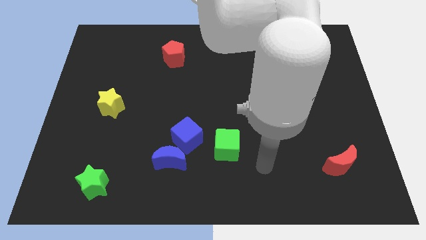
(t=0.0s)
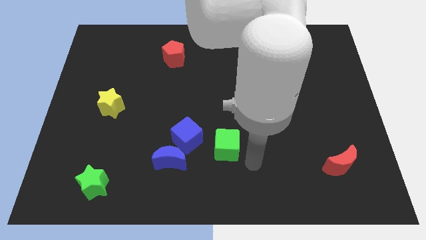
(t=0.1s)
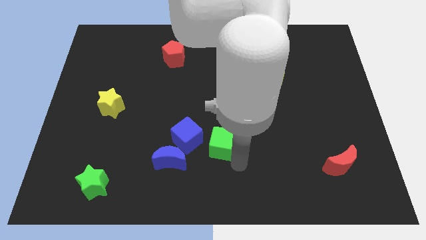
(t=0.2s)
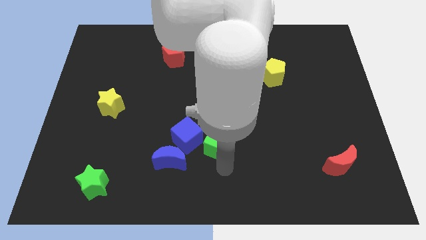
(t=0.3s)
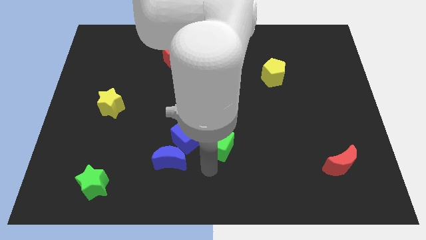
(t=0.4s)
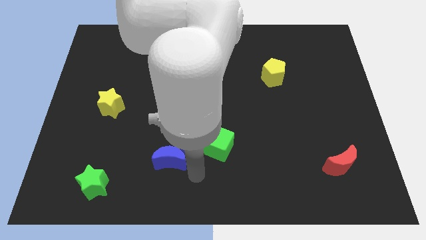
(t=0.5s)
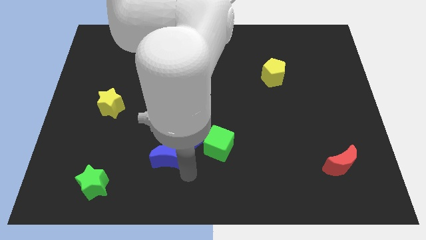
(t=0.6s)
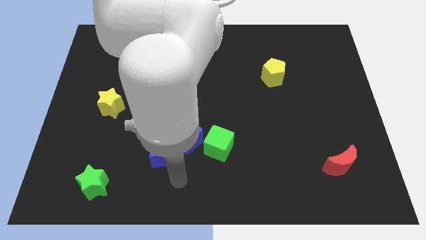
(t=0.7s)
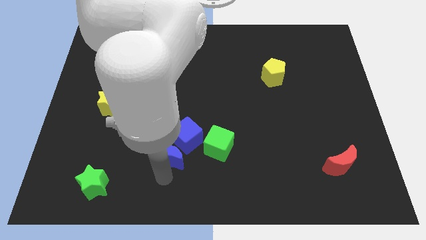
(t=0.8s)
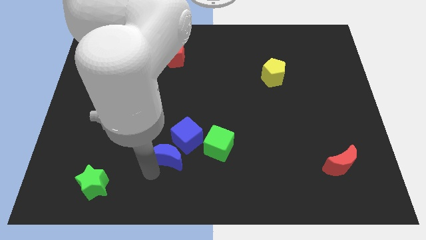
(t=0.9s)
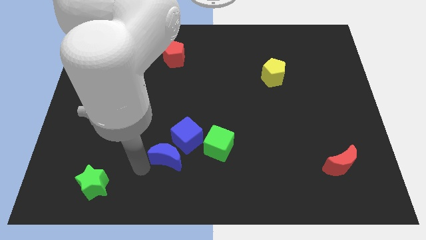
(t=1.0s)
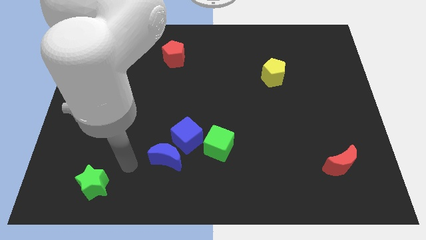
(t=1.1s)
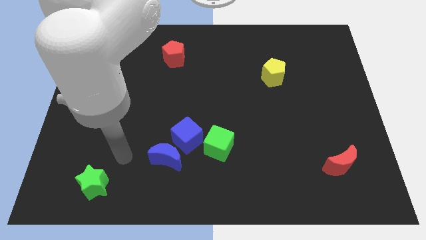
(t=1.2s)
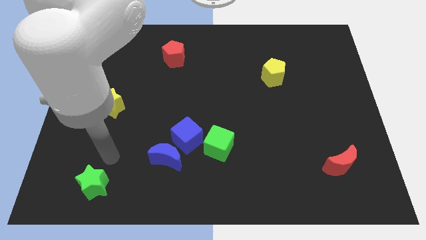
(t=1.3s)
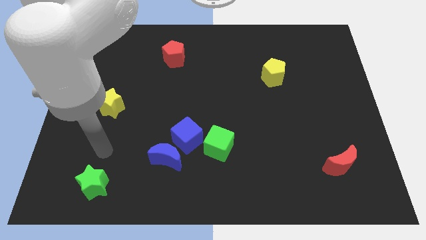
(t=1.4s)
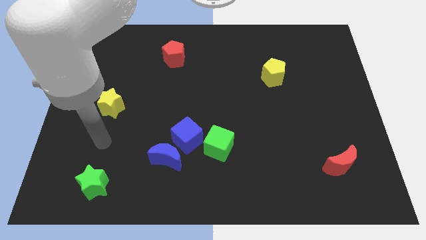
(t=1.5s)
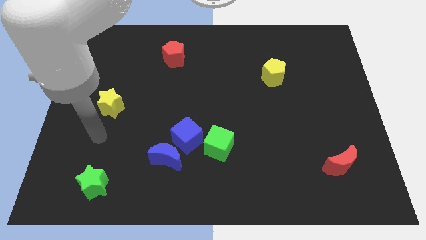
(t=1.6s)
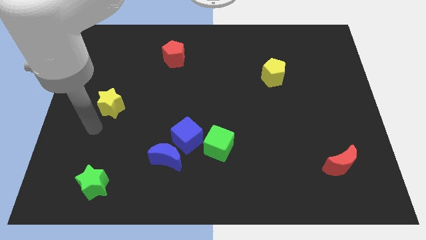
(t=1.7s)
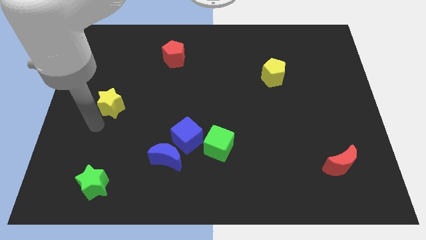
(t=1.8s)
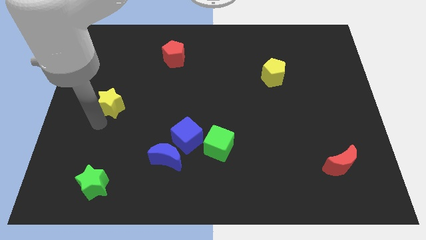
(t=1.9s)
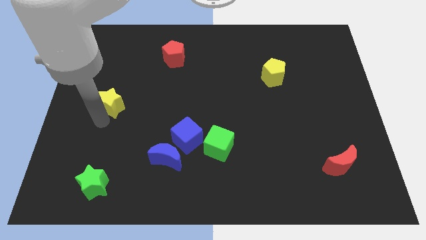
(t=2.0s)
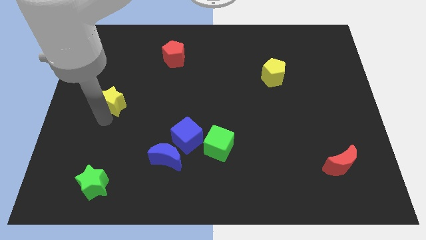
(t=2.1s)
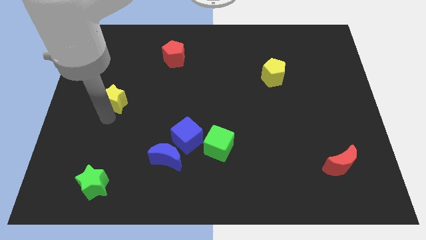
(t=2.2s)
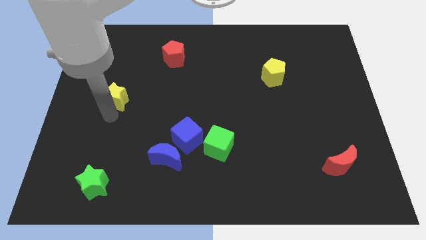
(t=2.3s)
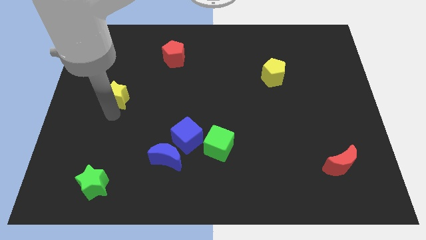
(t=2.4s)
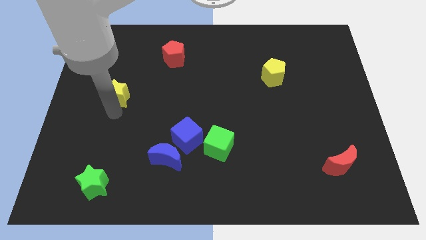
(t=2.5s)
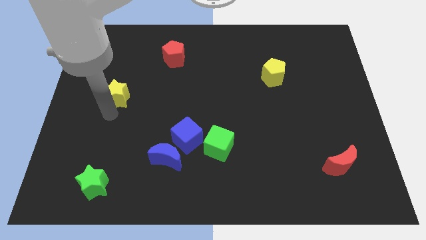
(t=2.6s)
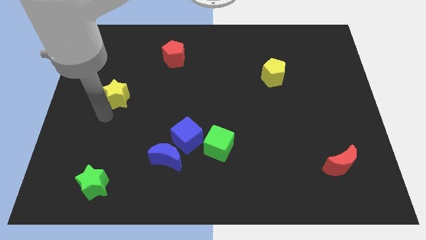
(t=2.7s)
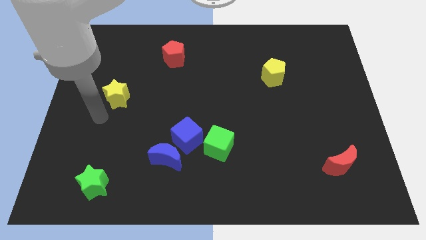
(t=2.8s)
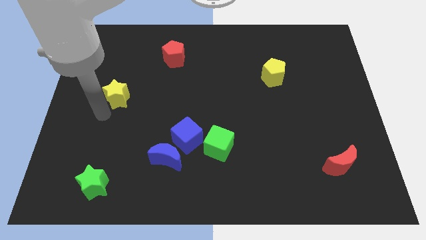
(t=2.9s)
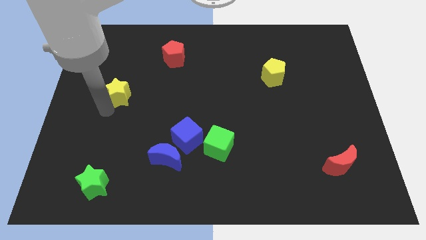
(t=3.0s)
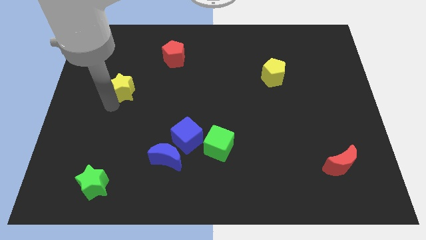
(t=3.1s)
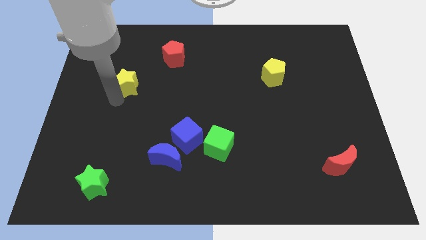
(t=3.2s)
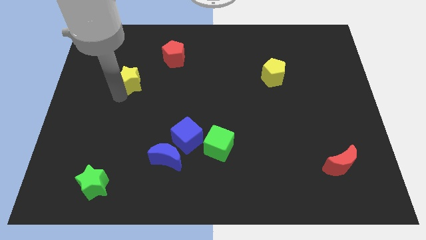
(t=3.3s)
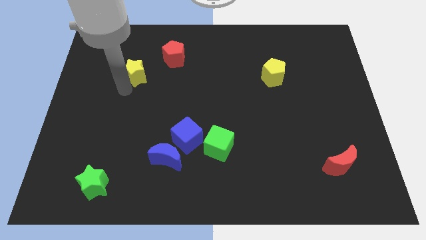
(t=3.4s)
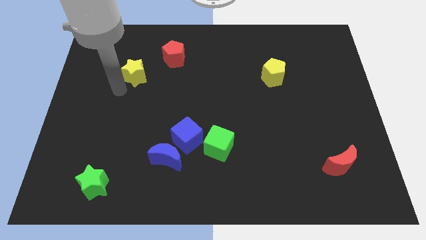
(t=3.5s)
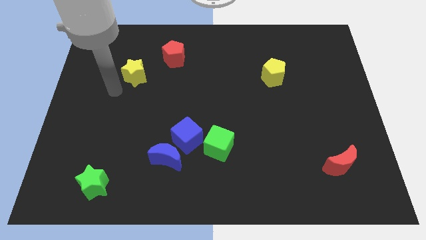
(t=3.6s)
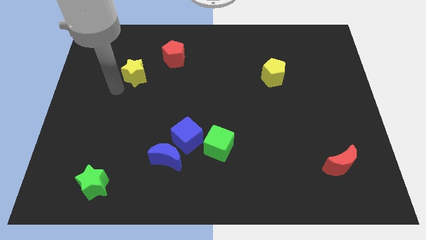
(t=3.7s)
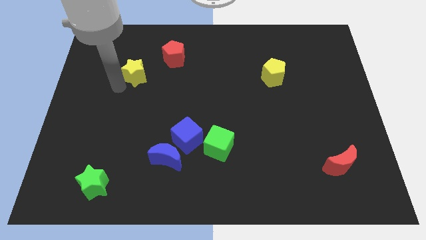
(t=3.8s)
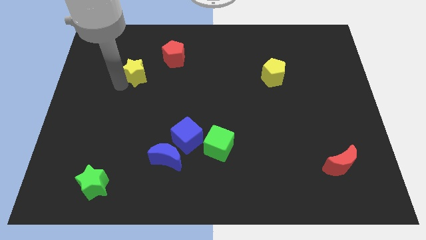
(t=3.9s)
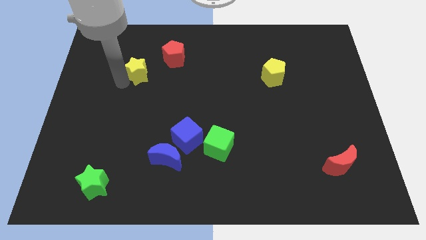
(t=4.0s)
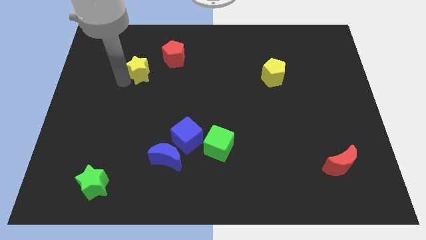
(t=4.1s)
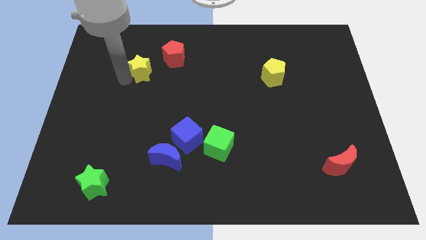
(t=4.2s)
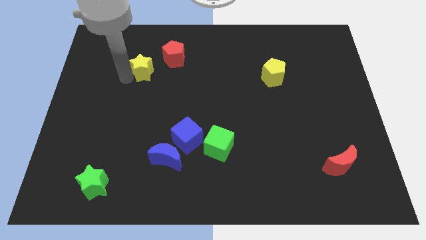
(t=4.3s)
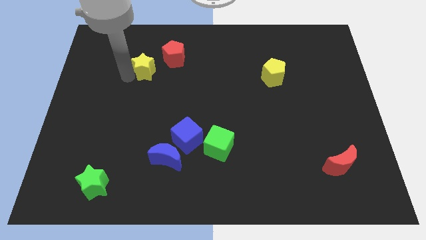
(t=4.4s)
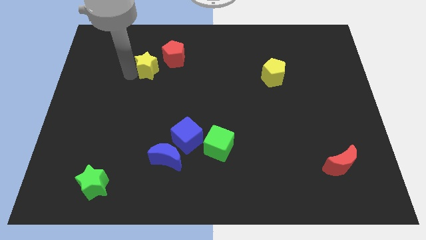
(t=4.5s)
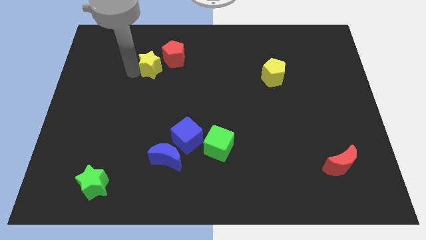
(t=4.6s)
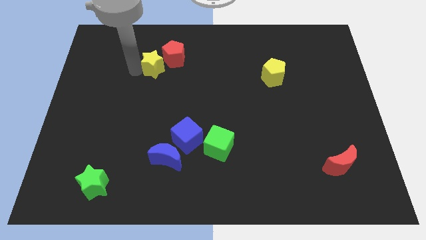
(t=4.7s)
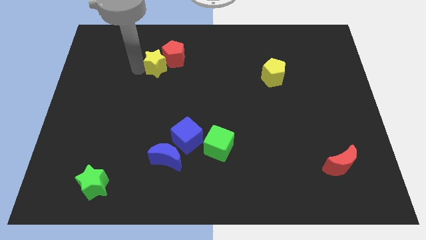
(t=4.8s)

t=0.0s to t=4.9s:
slide the yellow star next to the red pentagon

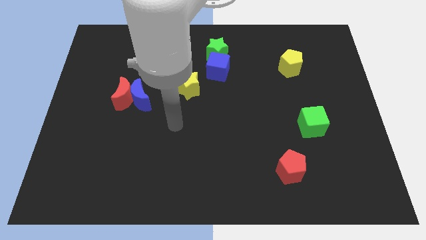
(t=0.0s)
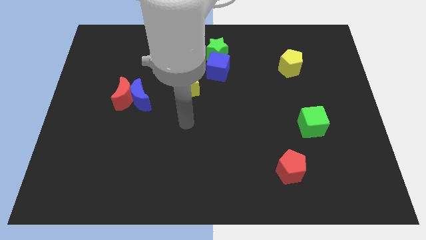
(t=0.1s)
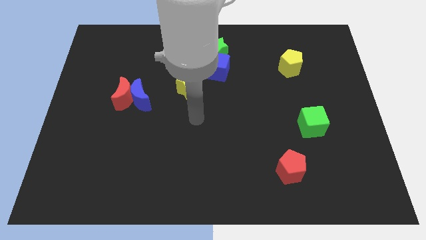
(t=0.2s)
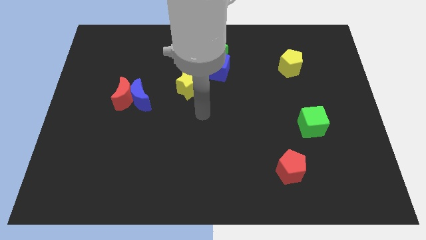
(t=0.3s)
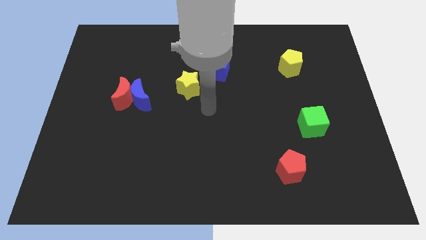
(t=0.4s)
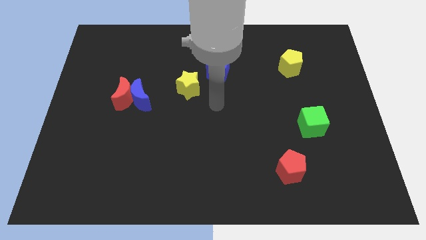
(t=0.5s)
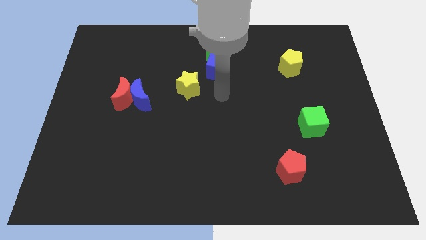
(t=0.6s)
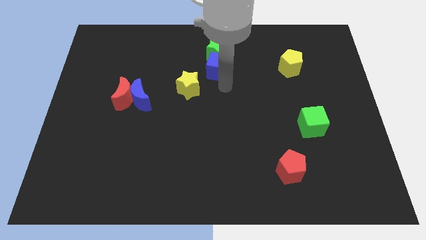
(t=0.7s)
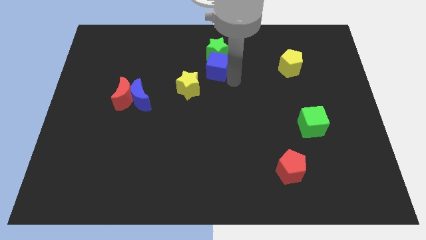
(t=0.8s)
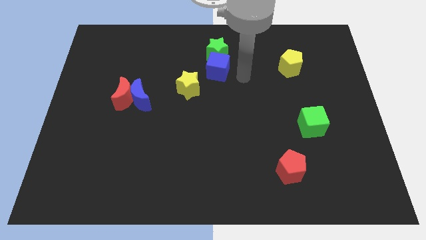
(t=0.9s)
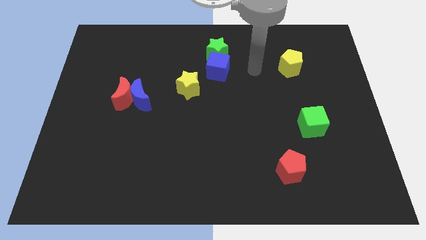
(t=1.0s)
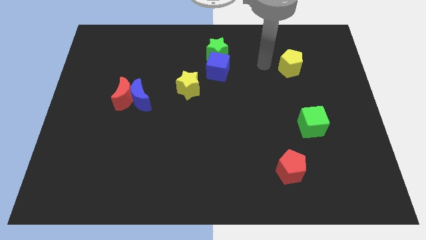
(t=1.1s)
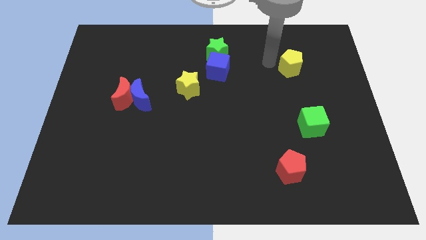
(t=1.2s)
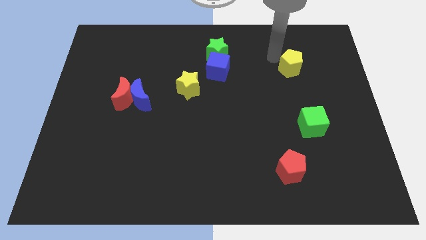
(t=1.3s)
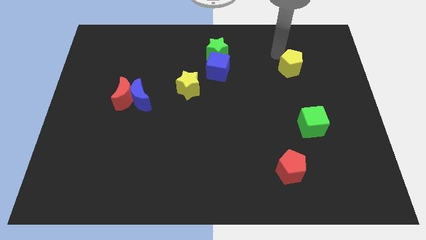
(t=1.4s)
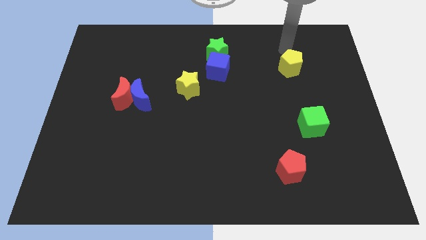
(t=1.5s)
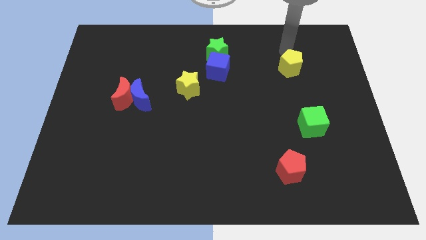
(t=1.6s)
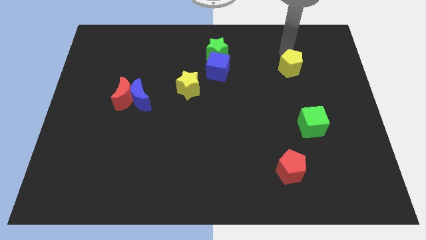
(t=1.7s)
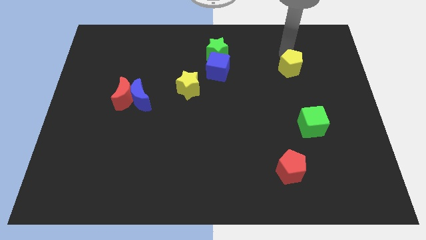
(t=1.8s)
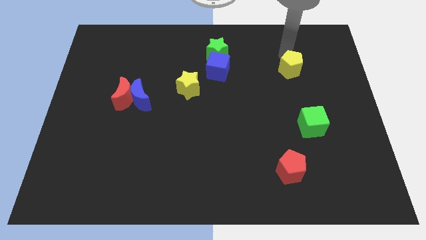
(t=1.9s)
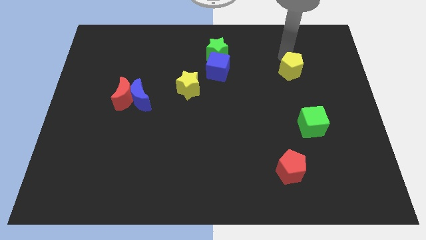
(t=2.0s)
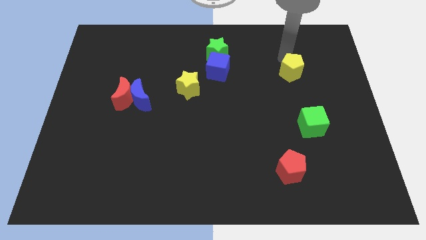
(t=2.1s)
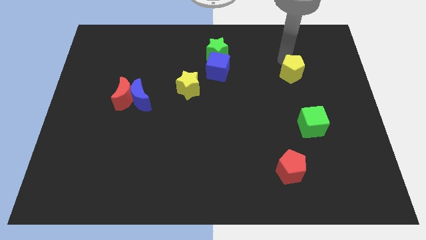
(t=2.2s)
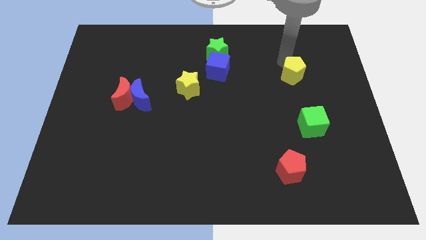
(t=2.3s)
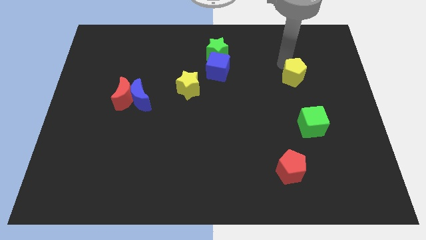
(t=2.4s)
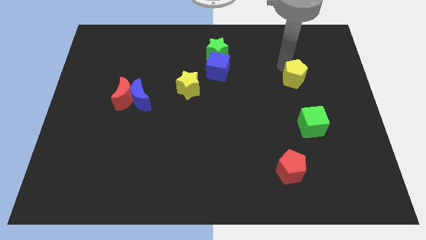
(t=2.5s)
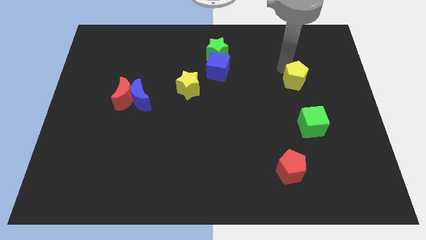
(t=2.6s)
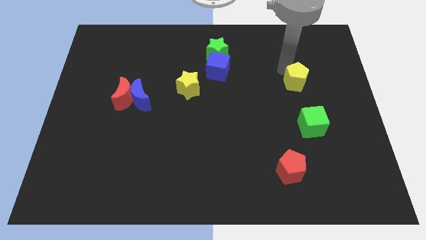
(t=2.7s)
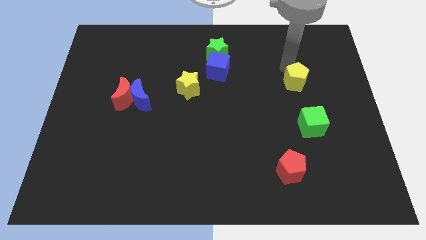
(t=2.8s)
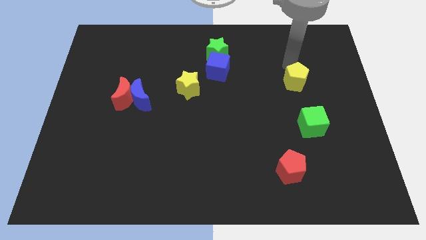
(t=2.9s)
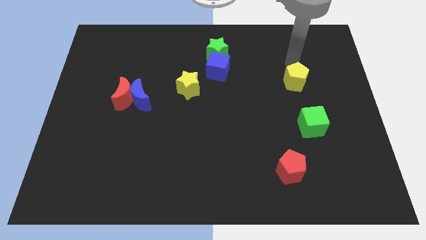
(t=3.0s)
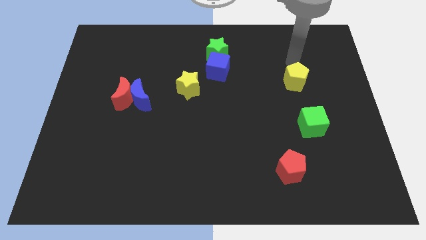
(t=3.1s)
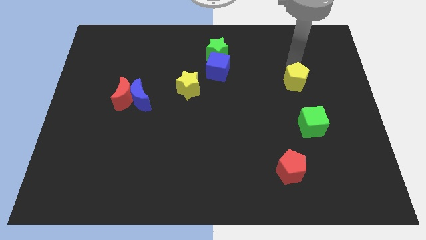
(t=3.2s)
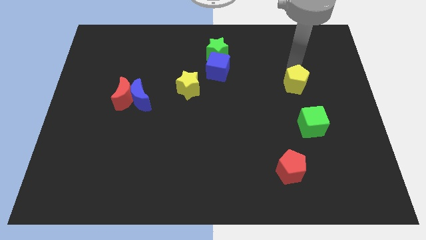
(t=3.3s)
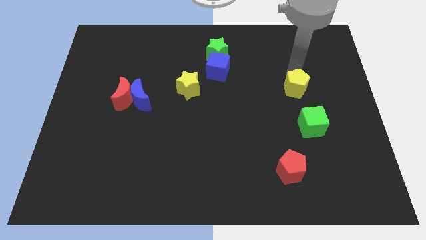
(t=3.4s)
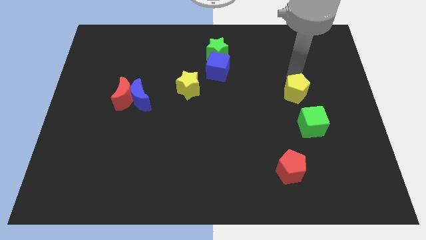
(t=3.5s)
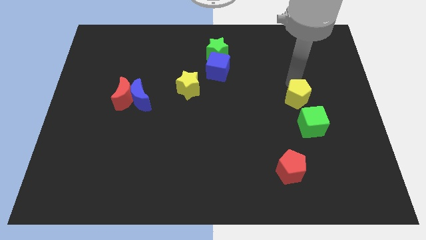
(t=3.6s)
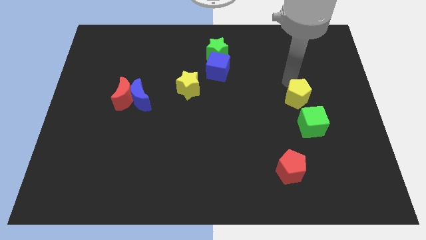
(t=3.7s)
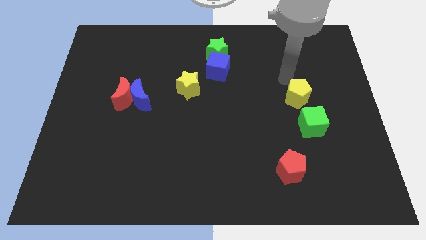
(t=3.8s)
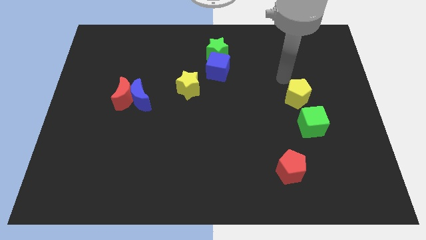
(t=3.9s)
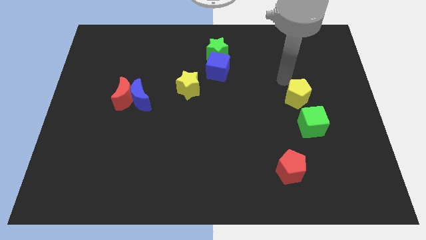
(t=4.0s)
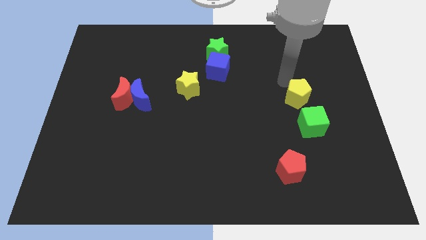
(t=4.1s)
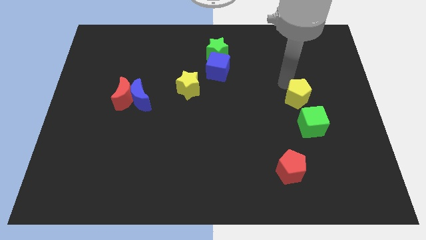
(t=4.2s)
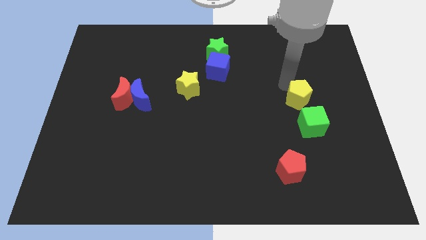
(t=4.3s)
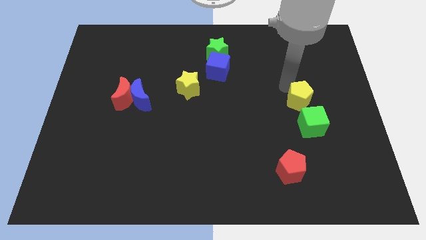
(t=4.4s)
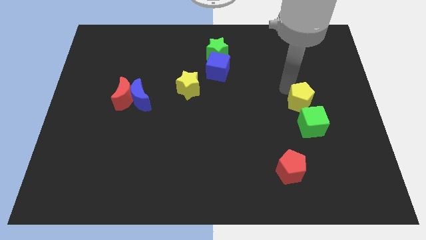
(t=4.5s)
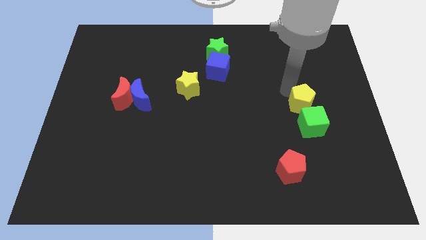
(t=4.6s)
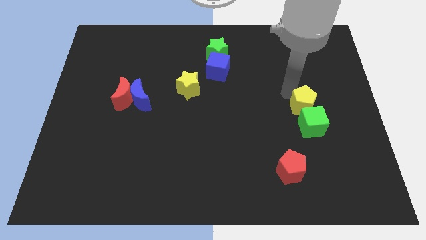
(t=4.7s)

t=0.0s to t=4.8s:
slide the yellow pentagon next to the green cube
